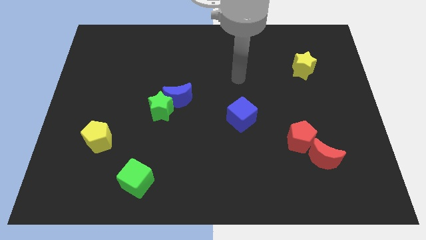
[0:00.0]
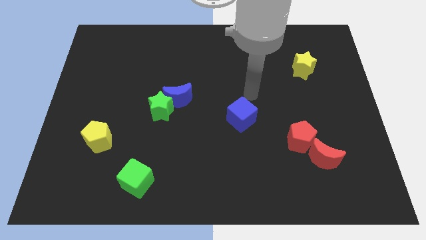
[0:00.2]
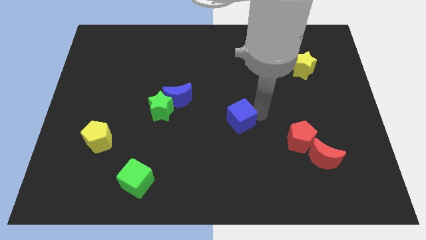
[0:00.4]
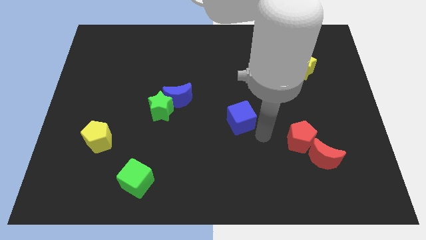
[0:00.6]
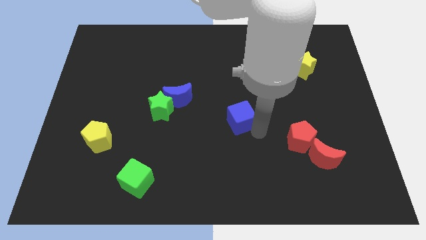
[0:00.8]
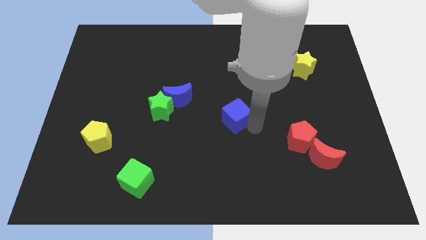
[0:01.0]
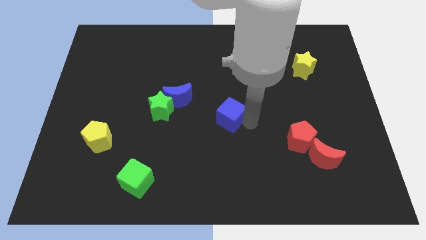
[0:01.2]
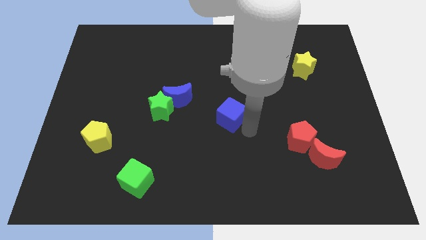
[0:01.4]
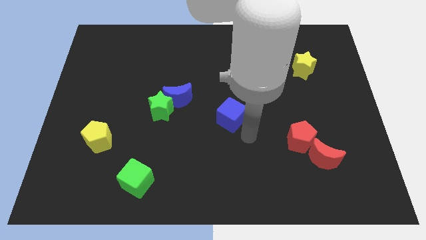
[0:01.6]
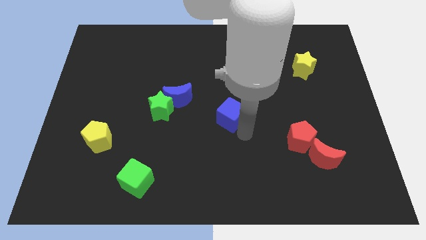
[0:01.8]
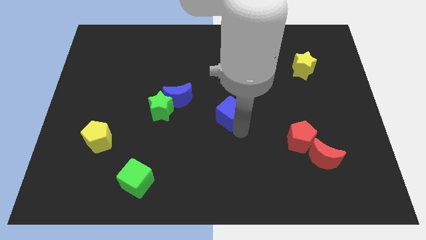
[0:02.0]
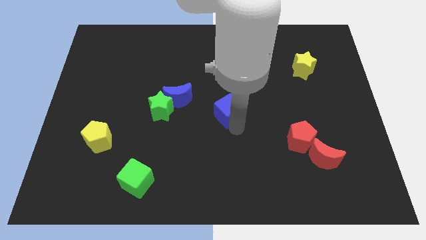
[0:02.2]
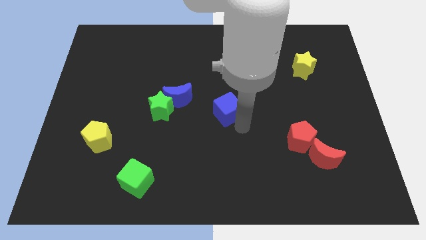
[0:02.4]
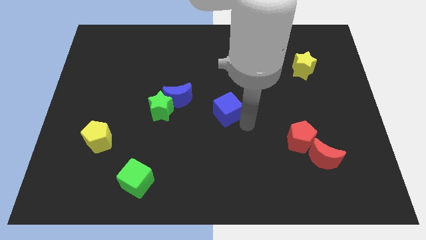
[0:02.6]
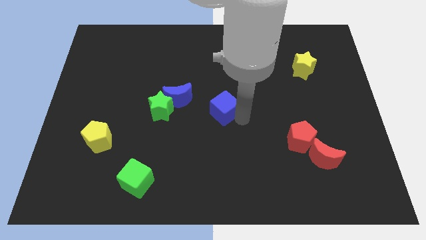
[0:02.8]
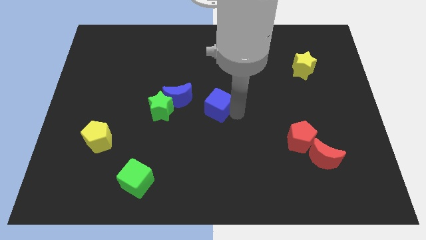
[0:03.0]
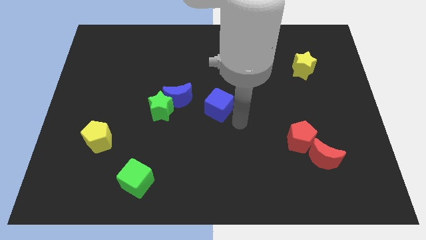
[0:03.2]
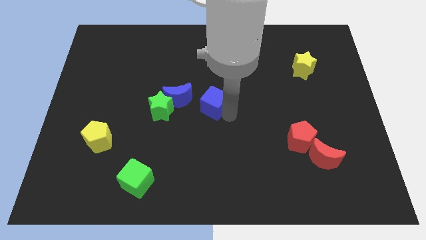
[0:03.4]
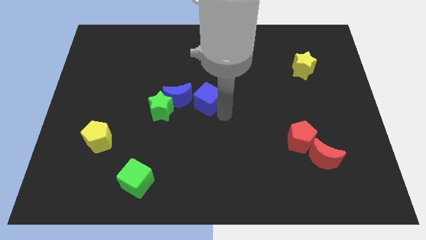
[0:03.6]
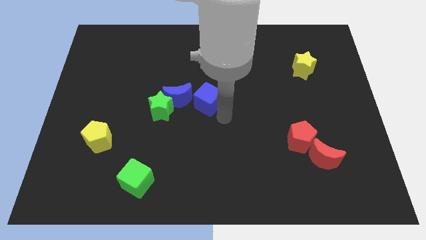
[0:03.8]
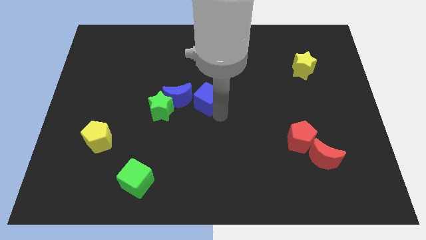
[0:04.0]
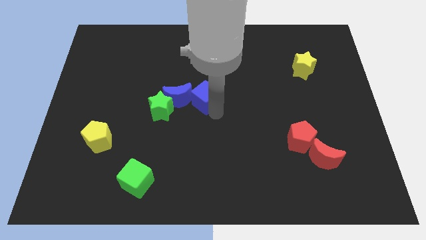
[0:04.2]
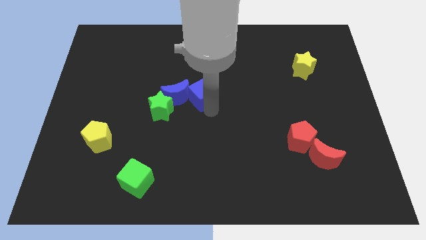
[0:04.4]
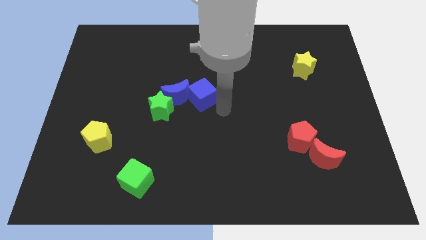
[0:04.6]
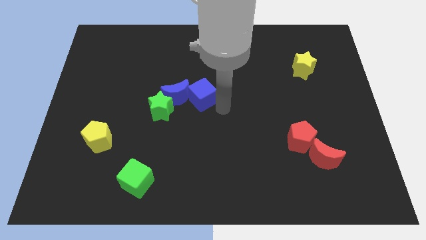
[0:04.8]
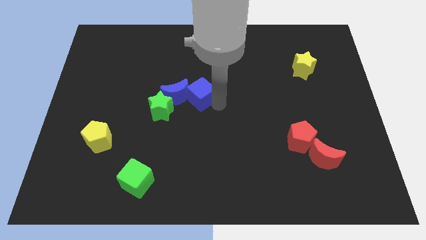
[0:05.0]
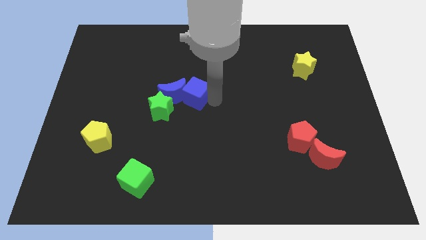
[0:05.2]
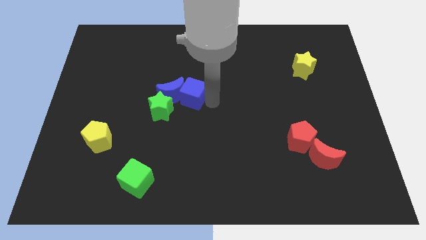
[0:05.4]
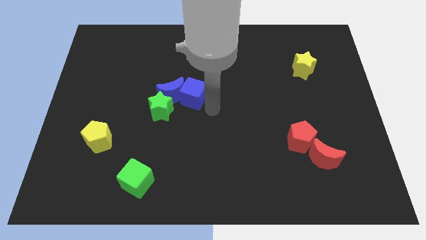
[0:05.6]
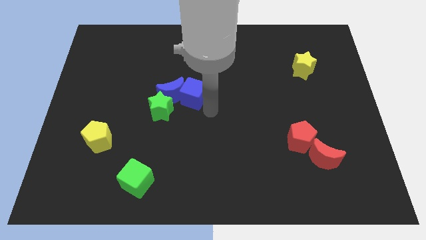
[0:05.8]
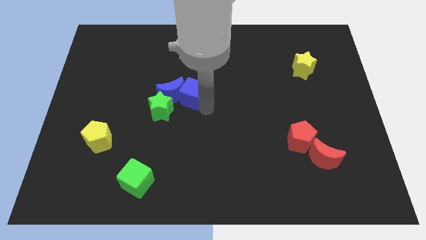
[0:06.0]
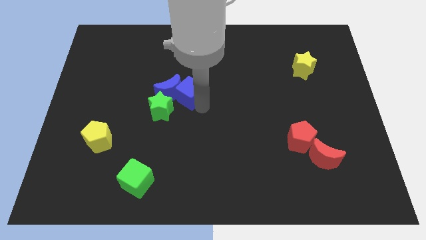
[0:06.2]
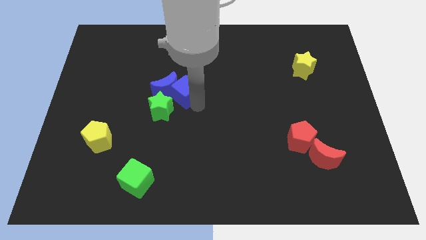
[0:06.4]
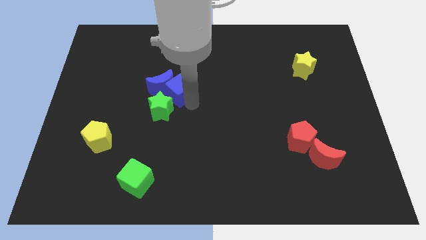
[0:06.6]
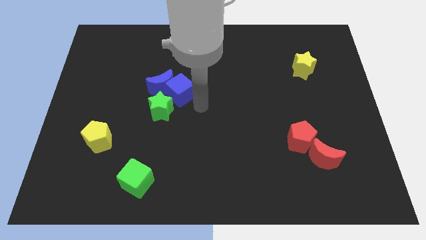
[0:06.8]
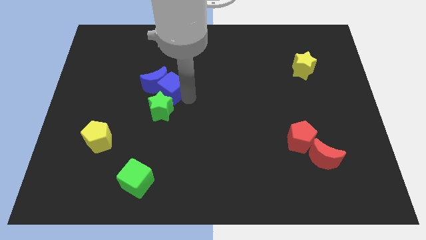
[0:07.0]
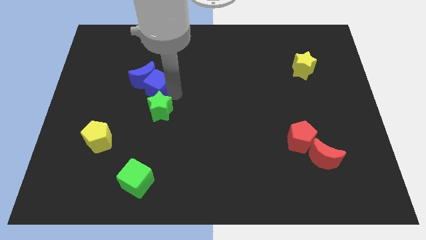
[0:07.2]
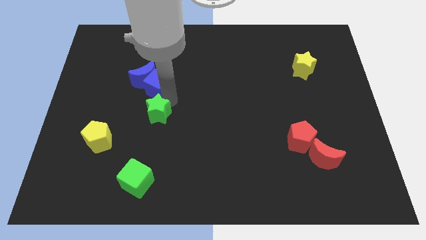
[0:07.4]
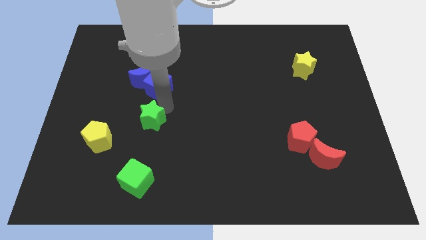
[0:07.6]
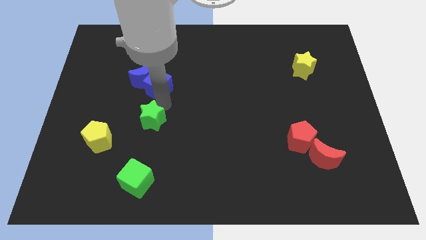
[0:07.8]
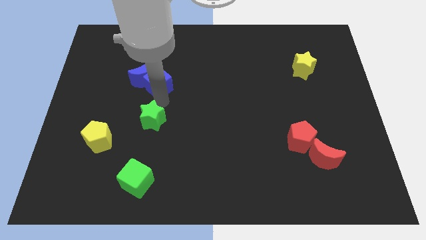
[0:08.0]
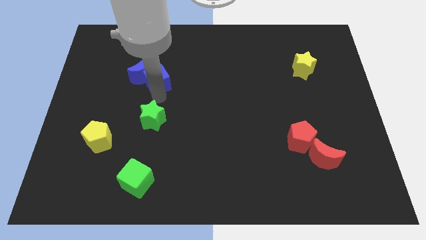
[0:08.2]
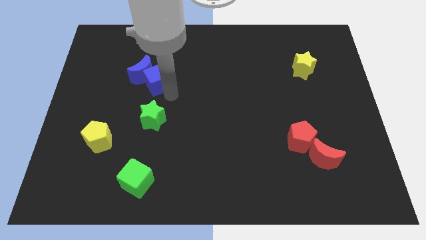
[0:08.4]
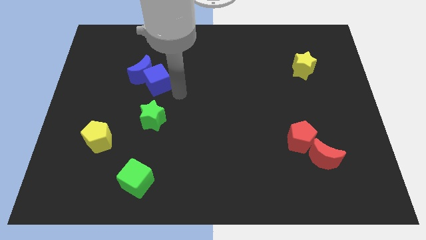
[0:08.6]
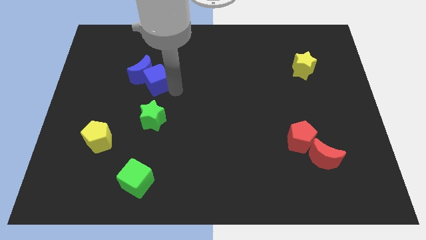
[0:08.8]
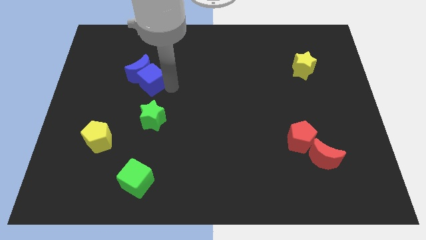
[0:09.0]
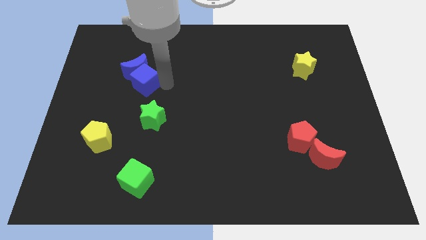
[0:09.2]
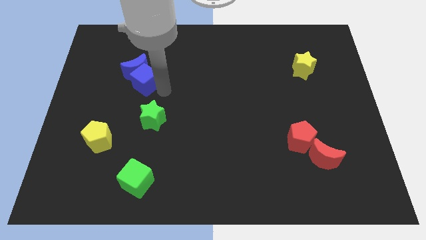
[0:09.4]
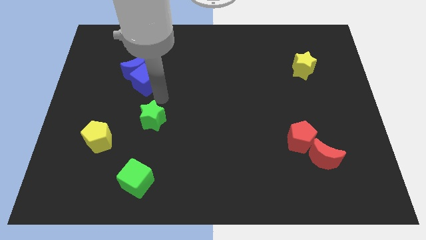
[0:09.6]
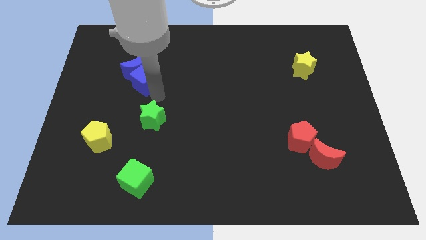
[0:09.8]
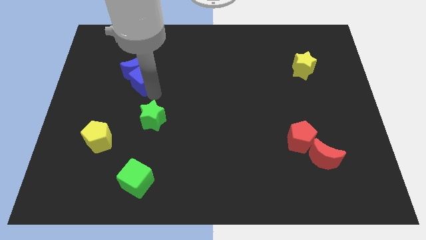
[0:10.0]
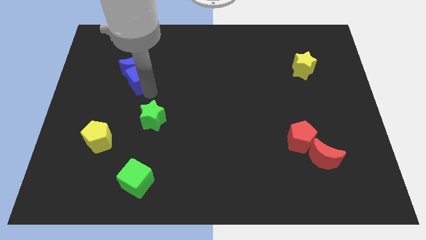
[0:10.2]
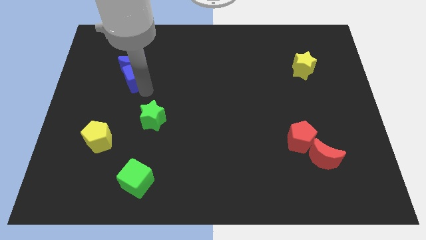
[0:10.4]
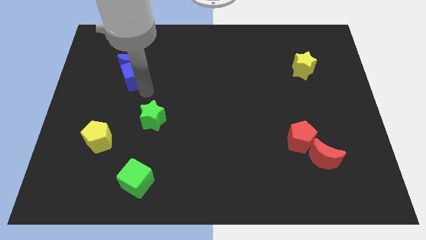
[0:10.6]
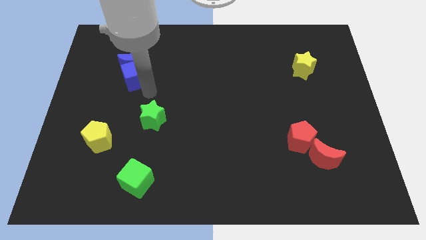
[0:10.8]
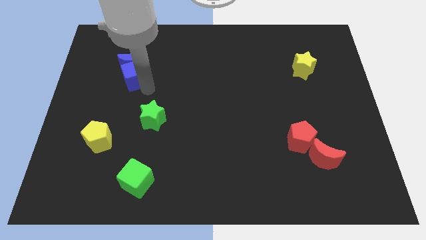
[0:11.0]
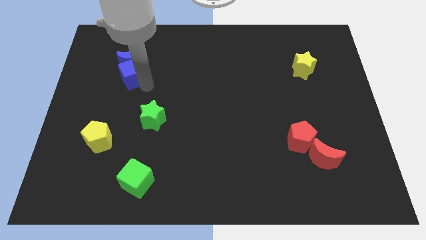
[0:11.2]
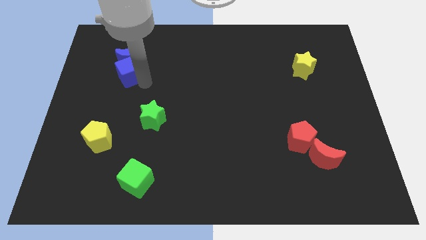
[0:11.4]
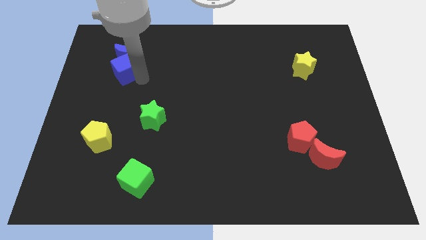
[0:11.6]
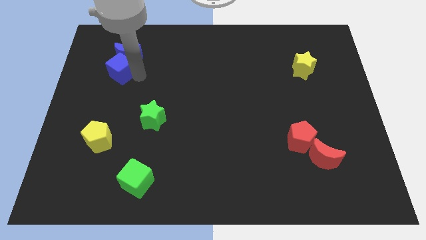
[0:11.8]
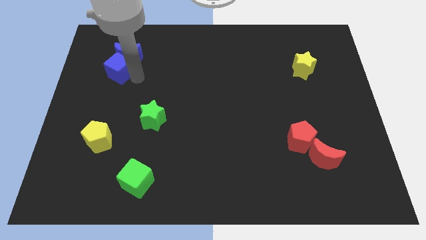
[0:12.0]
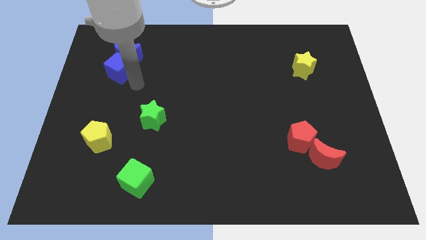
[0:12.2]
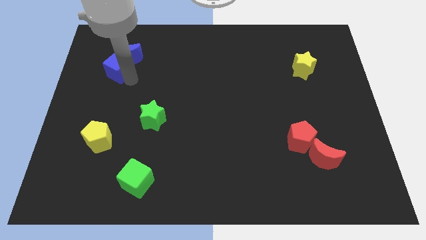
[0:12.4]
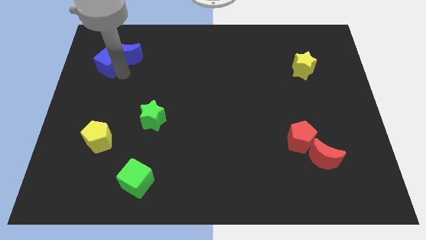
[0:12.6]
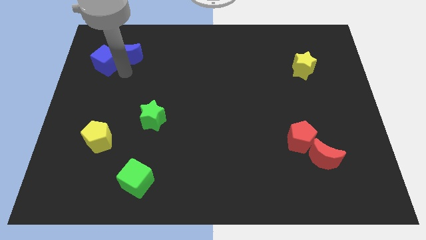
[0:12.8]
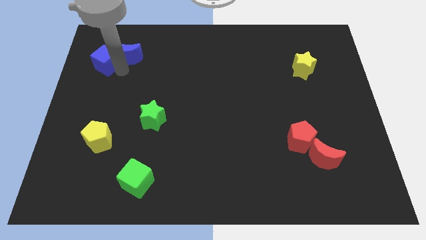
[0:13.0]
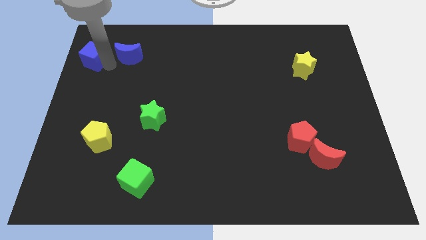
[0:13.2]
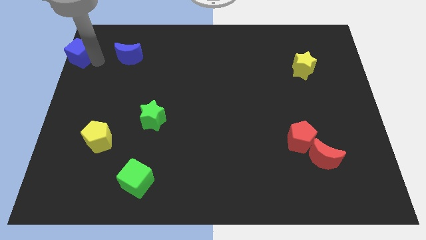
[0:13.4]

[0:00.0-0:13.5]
move the blue cube to the upper left corner

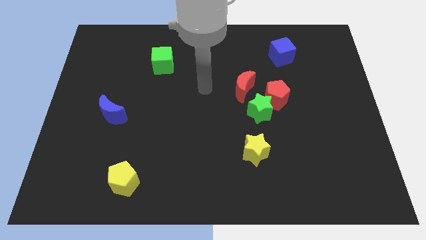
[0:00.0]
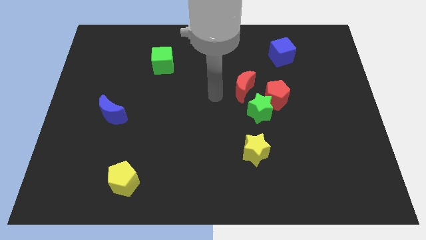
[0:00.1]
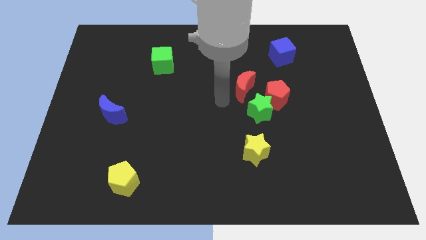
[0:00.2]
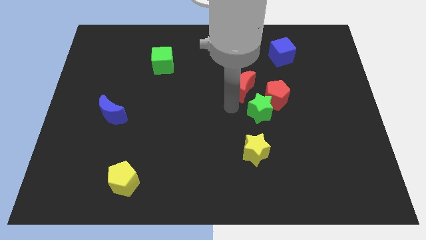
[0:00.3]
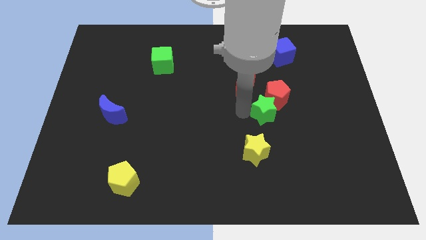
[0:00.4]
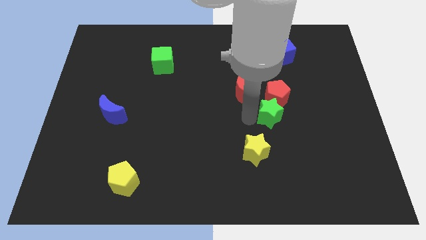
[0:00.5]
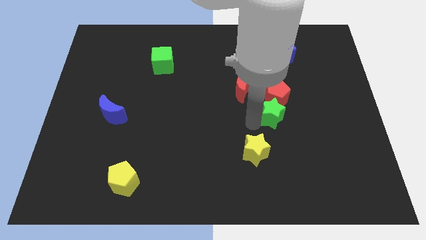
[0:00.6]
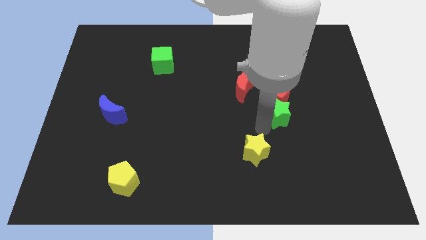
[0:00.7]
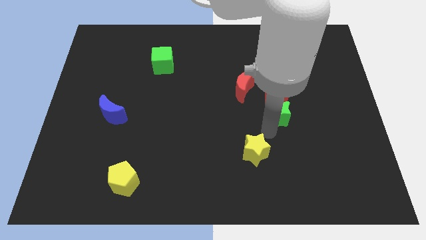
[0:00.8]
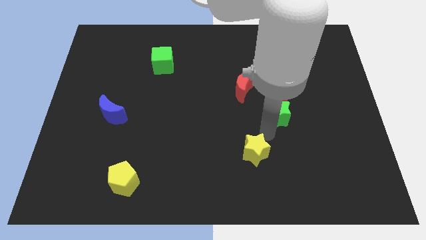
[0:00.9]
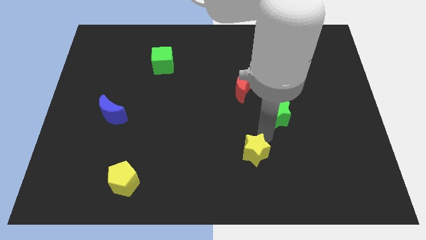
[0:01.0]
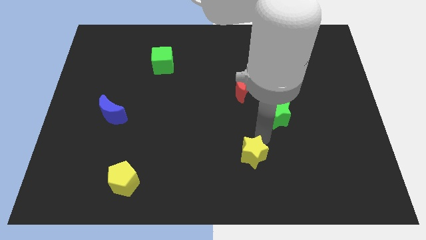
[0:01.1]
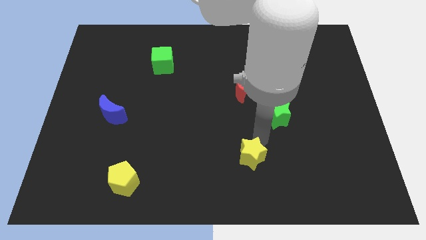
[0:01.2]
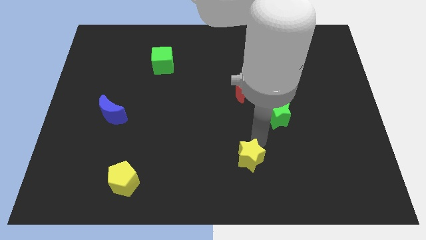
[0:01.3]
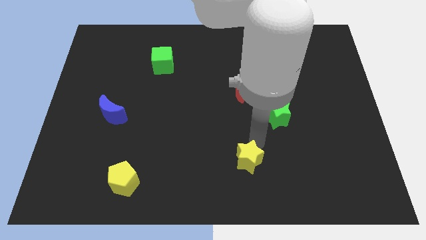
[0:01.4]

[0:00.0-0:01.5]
put the yellow star to the bottom

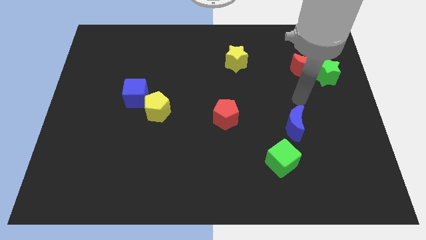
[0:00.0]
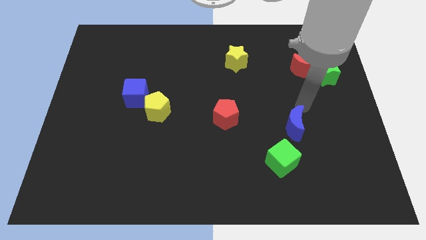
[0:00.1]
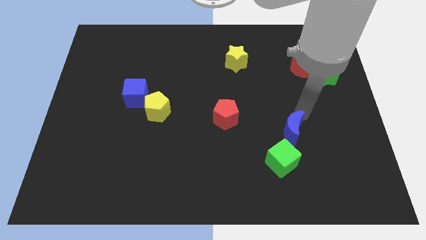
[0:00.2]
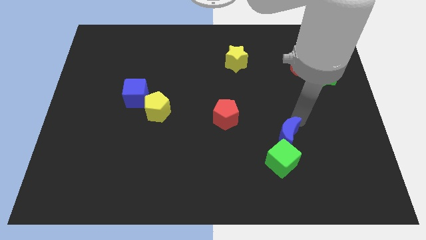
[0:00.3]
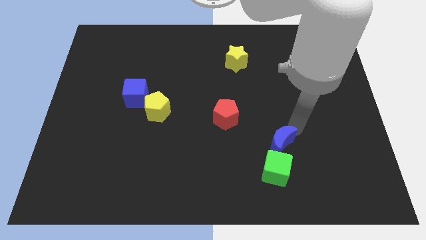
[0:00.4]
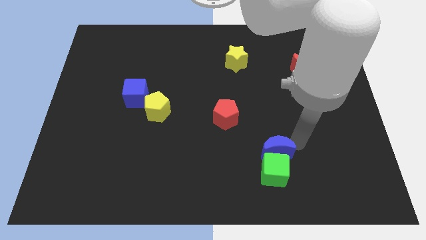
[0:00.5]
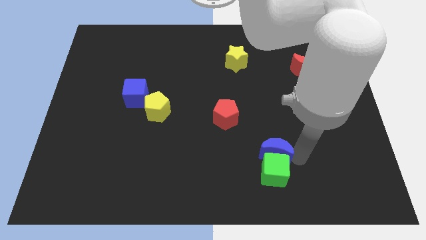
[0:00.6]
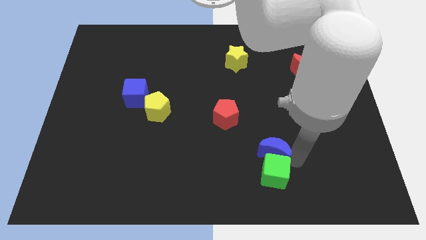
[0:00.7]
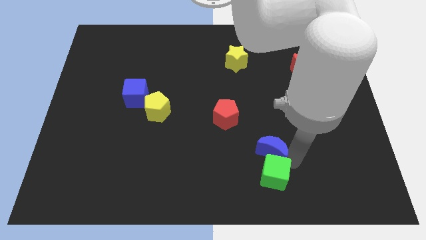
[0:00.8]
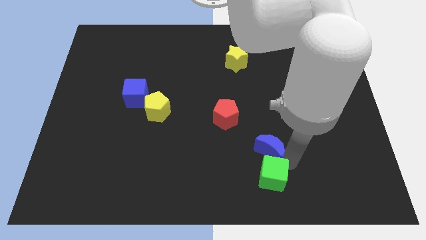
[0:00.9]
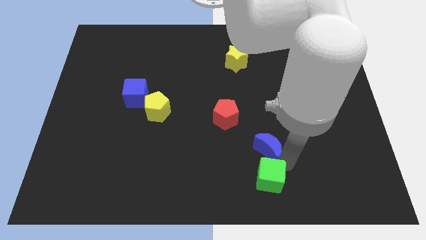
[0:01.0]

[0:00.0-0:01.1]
move the green cube to the bottom side
